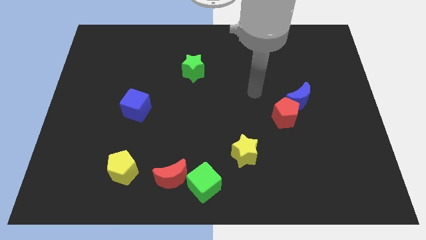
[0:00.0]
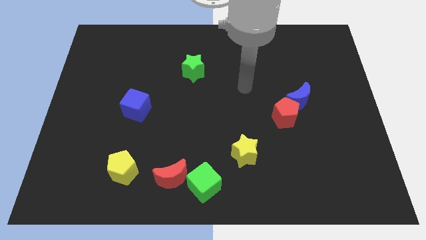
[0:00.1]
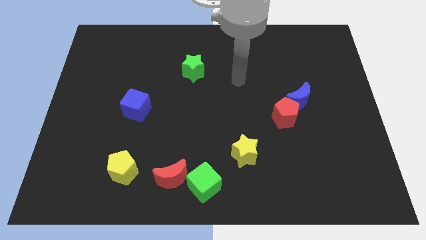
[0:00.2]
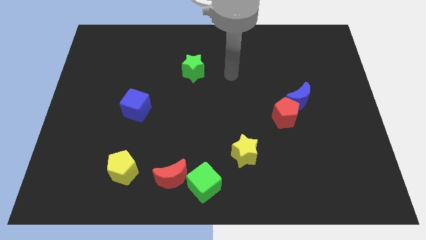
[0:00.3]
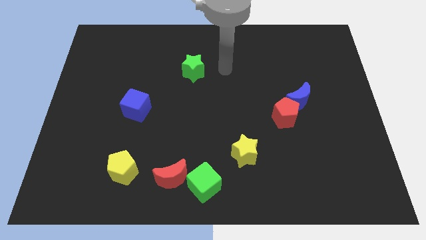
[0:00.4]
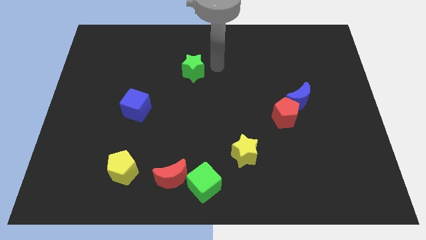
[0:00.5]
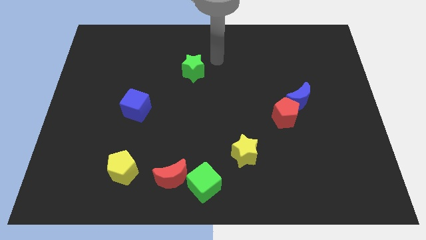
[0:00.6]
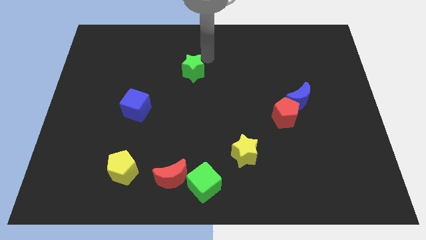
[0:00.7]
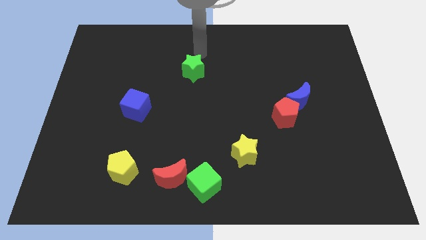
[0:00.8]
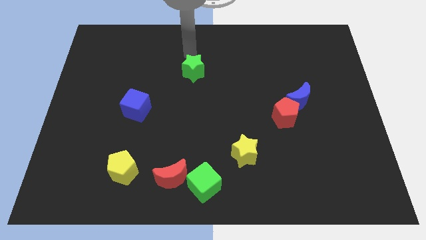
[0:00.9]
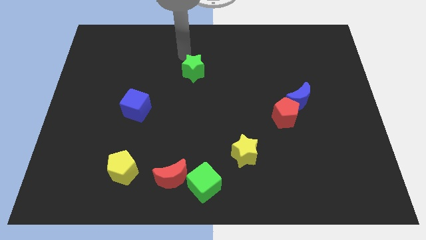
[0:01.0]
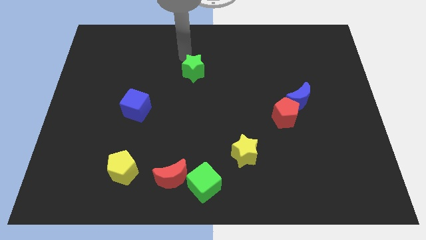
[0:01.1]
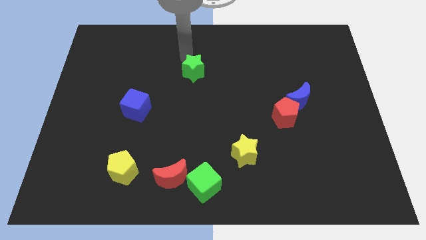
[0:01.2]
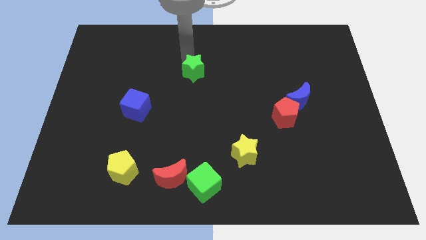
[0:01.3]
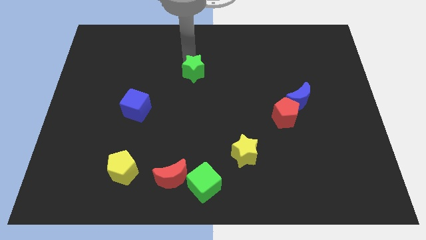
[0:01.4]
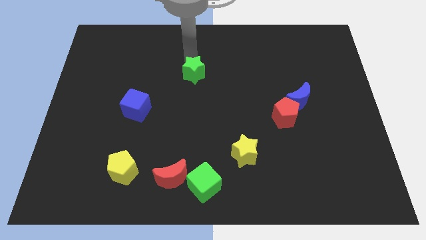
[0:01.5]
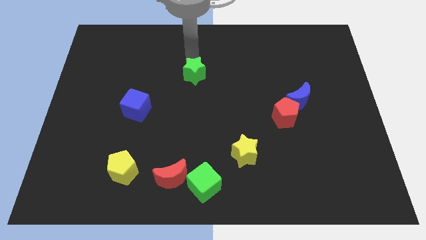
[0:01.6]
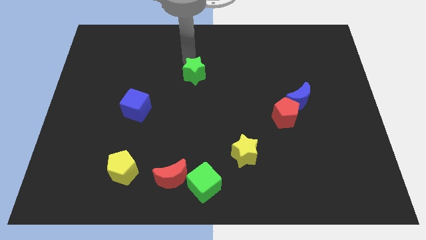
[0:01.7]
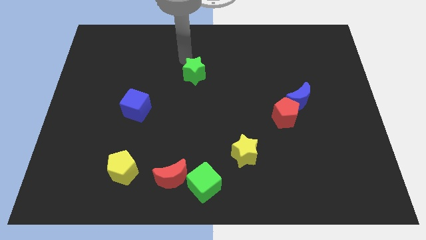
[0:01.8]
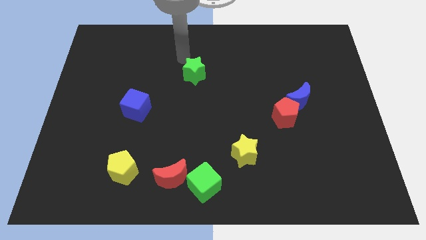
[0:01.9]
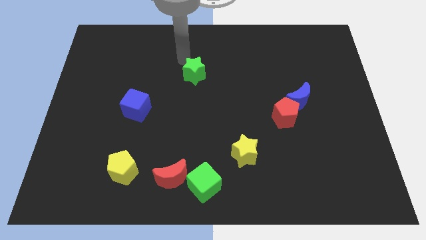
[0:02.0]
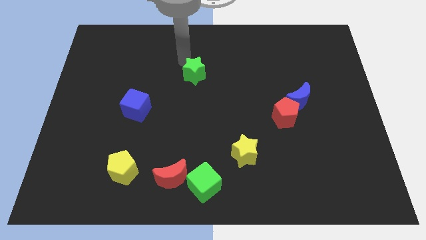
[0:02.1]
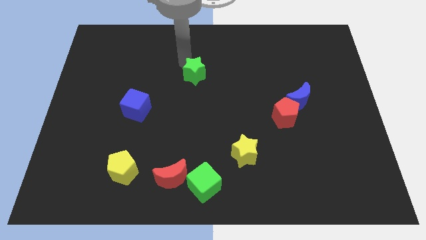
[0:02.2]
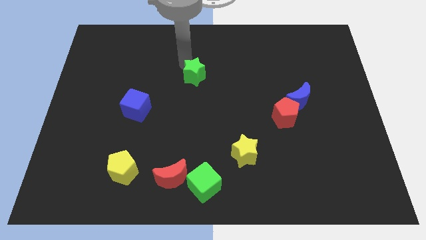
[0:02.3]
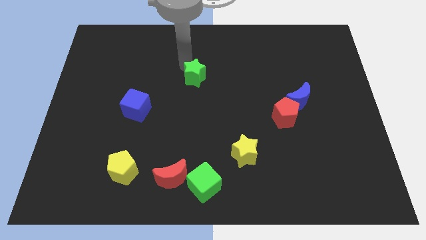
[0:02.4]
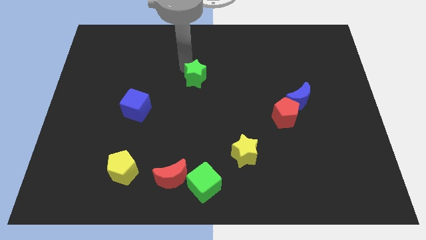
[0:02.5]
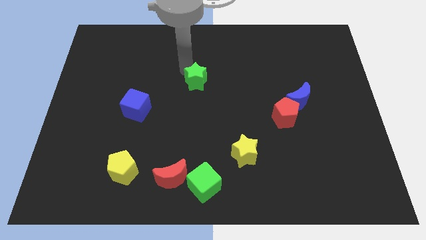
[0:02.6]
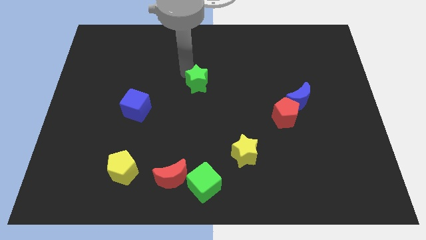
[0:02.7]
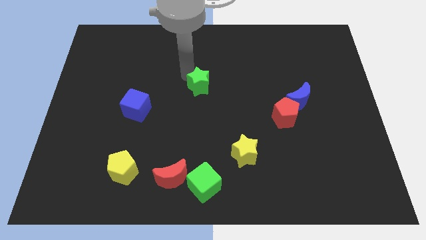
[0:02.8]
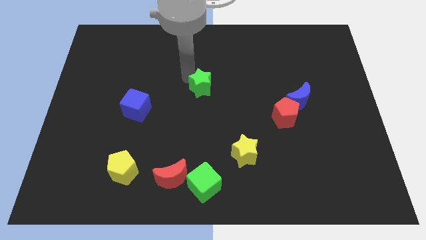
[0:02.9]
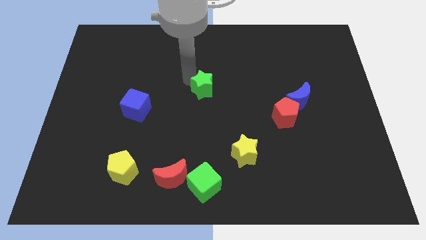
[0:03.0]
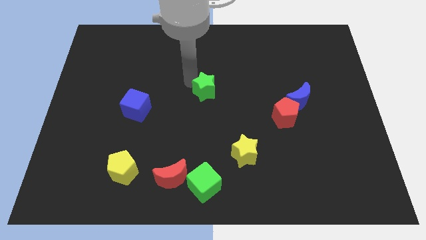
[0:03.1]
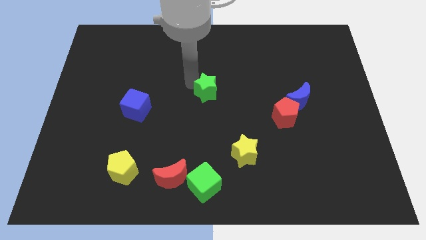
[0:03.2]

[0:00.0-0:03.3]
slide the green star down and to the right somewhat

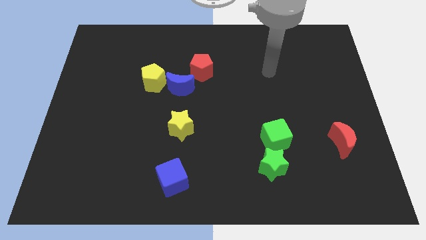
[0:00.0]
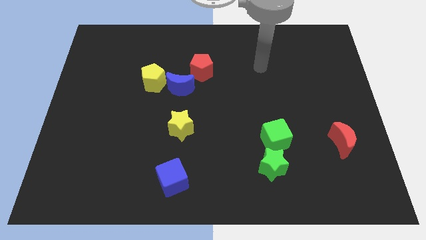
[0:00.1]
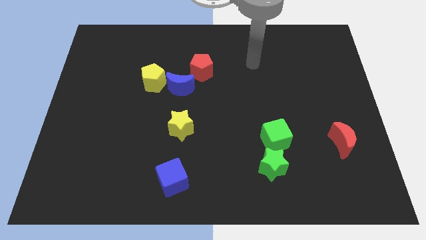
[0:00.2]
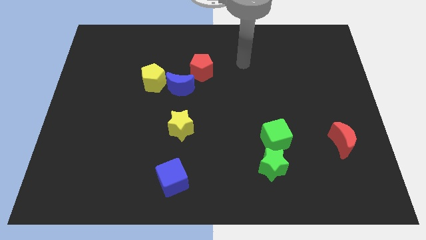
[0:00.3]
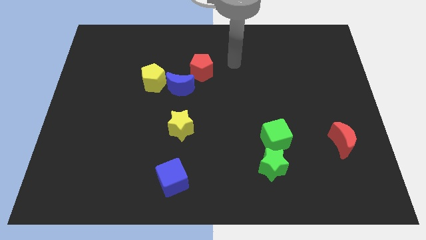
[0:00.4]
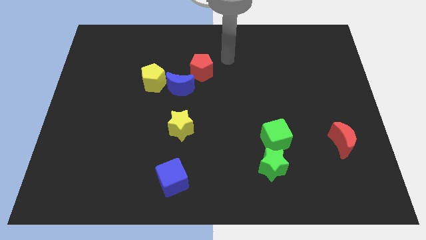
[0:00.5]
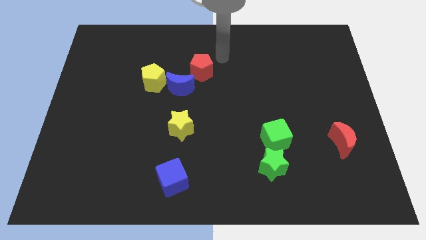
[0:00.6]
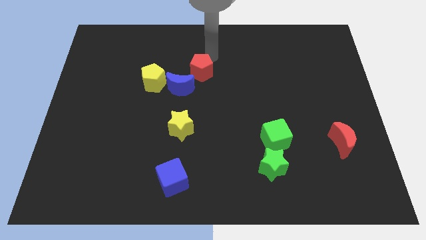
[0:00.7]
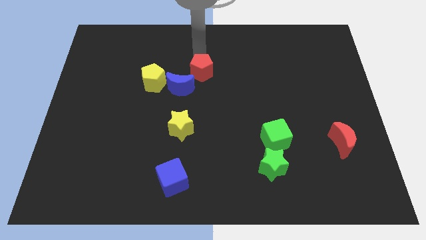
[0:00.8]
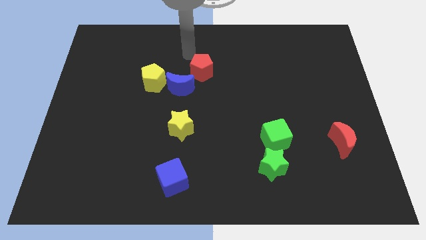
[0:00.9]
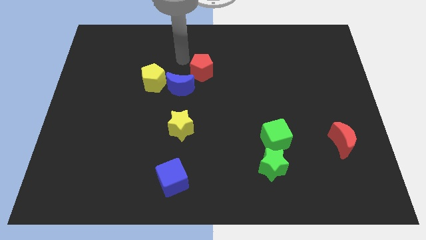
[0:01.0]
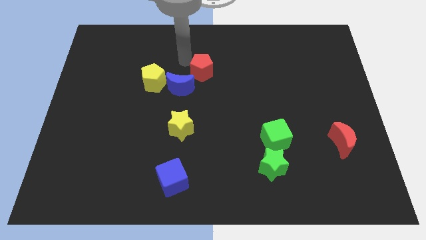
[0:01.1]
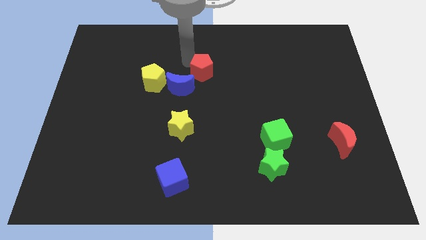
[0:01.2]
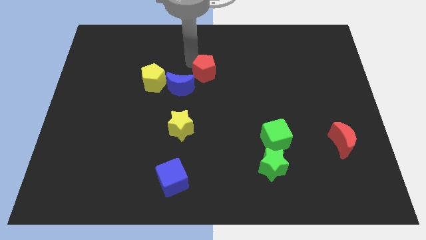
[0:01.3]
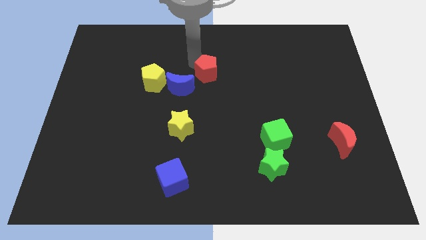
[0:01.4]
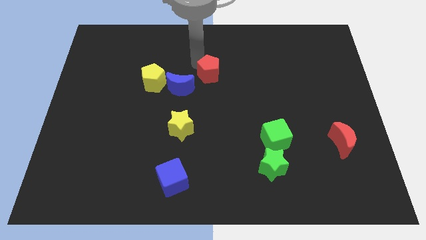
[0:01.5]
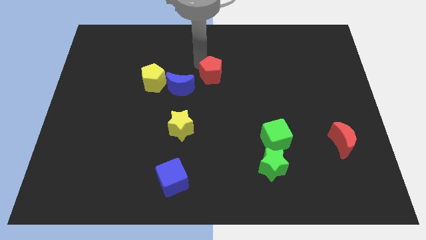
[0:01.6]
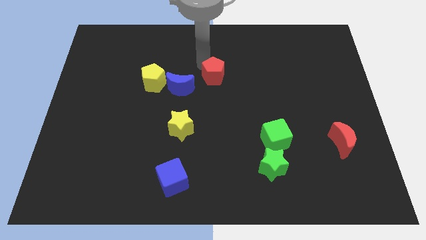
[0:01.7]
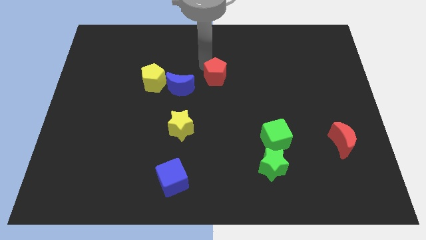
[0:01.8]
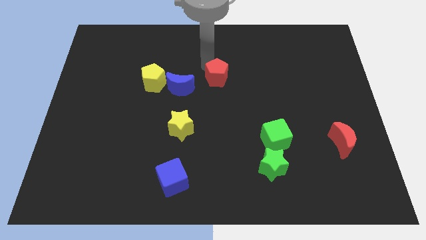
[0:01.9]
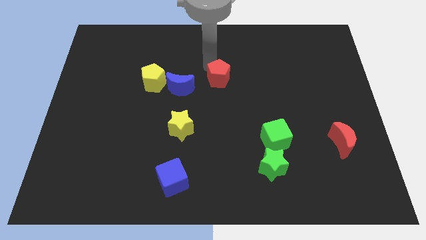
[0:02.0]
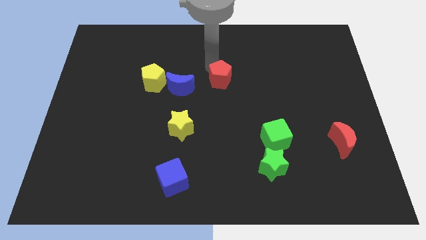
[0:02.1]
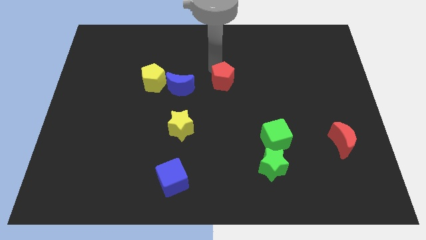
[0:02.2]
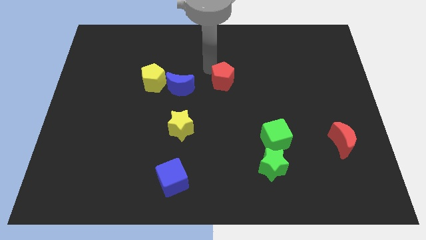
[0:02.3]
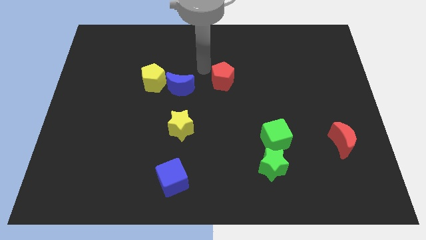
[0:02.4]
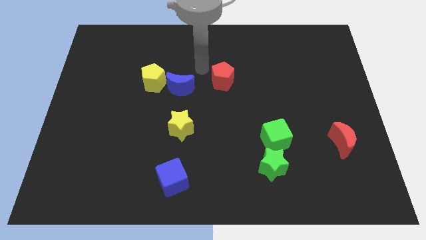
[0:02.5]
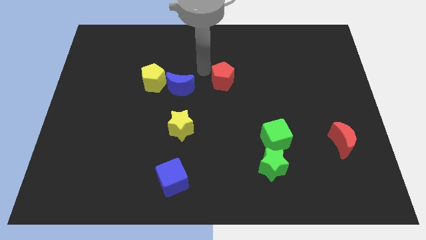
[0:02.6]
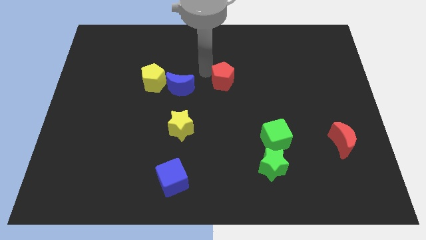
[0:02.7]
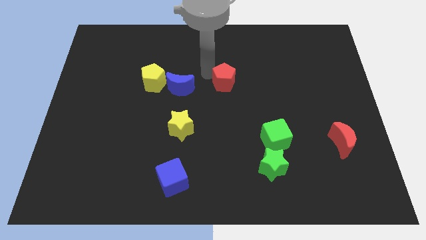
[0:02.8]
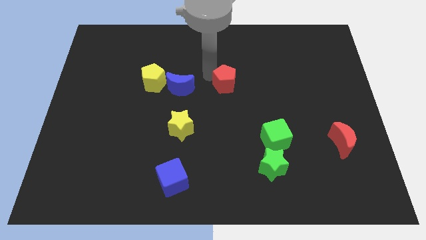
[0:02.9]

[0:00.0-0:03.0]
slightly move the red pentagon diagonally downwards and to the right

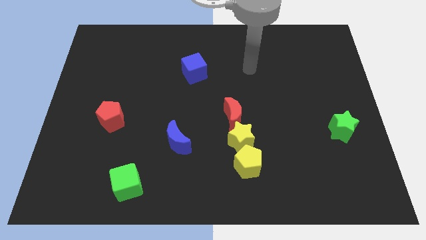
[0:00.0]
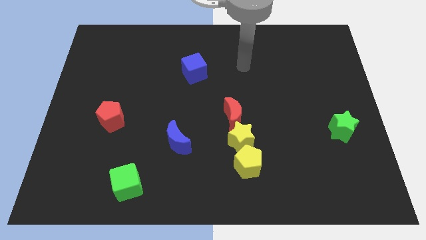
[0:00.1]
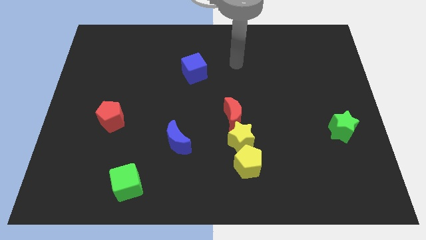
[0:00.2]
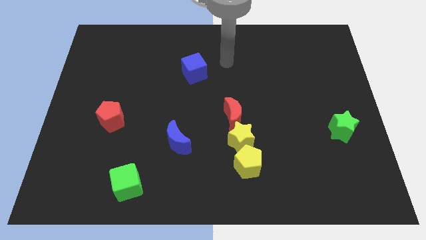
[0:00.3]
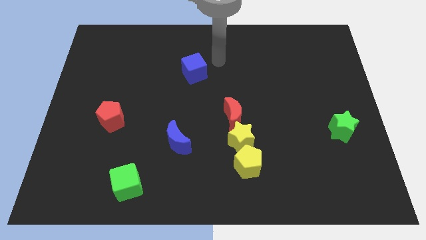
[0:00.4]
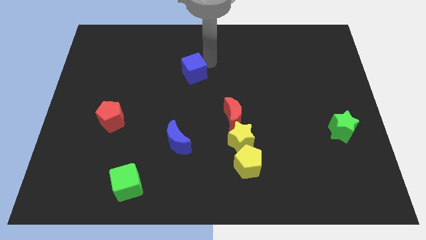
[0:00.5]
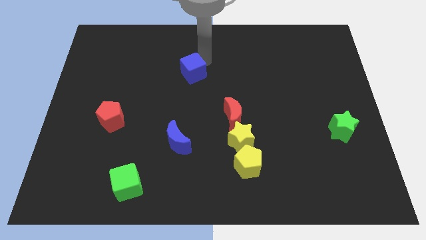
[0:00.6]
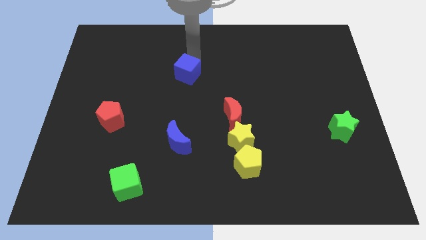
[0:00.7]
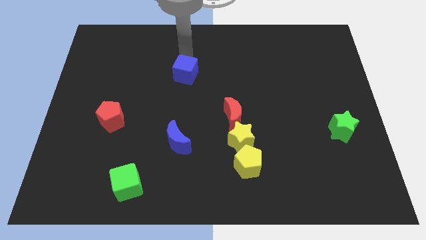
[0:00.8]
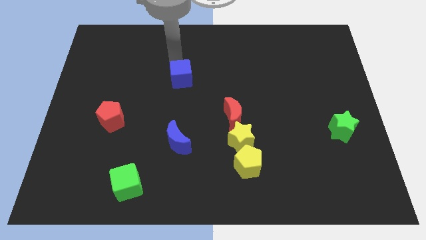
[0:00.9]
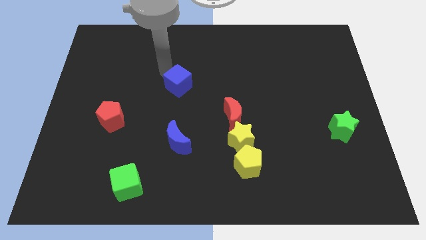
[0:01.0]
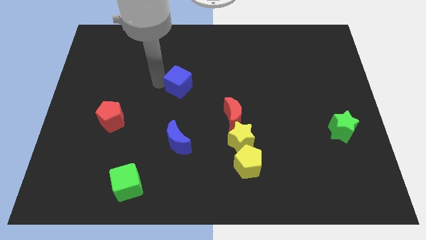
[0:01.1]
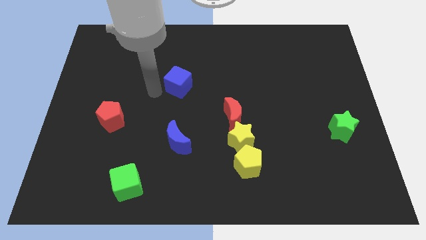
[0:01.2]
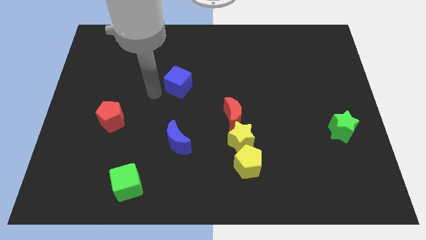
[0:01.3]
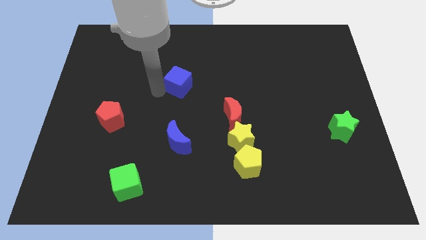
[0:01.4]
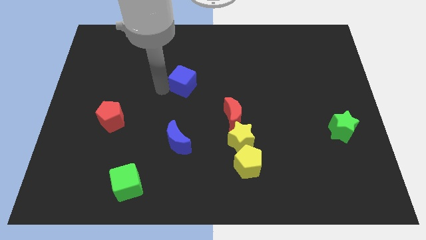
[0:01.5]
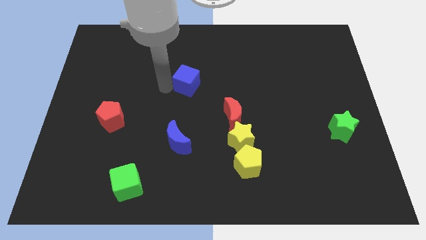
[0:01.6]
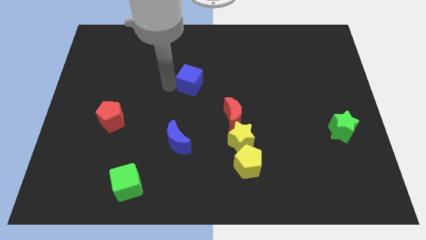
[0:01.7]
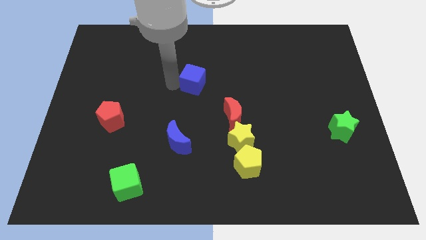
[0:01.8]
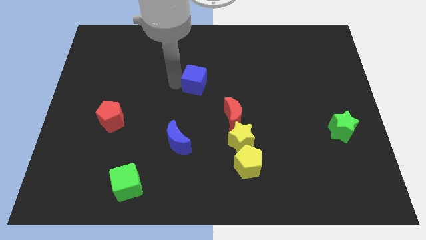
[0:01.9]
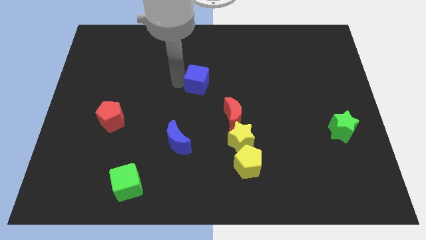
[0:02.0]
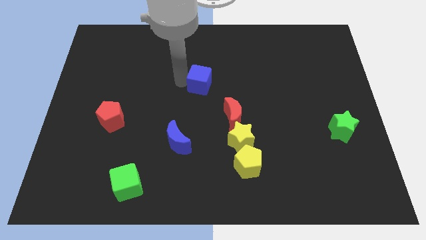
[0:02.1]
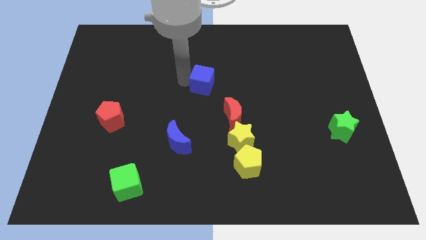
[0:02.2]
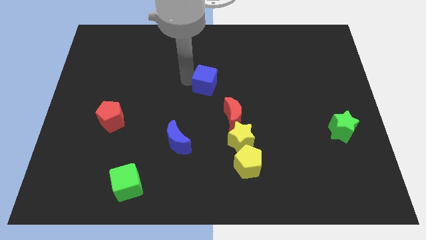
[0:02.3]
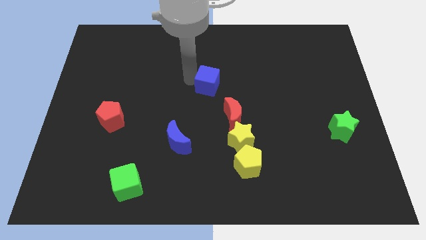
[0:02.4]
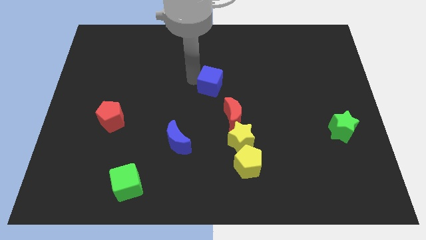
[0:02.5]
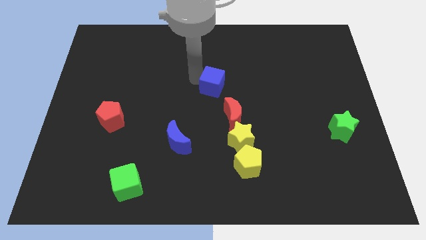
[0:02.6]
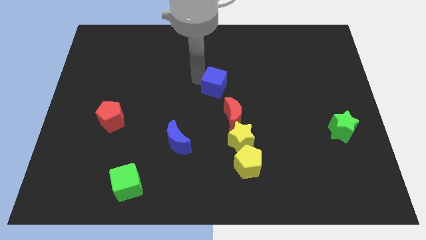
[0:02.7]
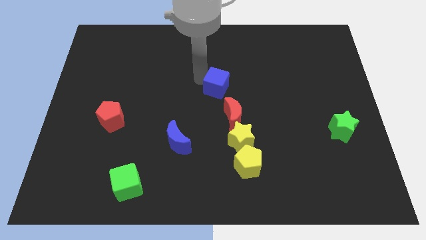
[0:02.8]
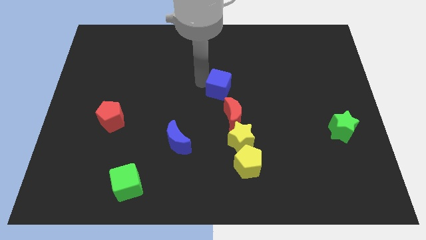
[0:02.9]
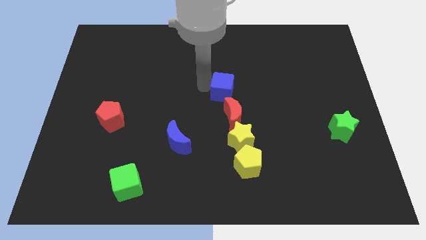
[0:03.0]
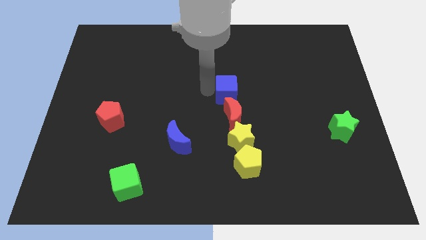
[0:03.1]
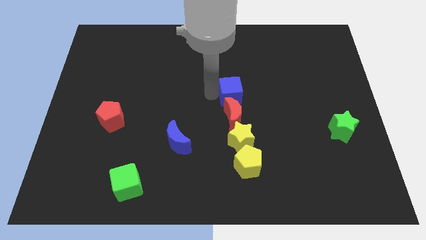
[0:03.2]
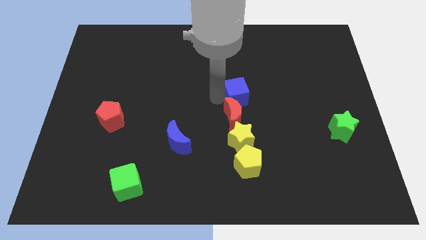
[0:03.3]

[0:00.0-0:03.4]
push the blue cube somewhat to the right
